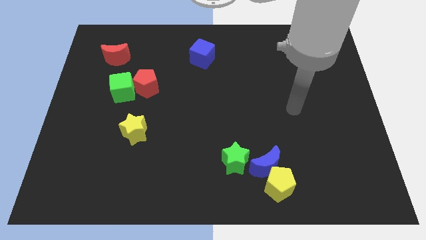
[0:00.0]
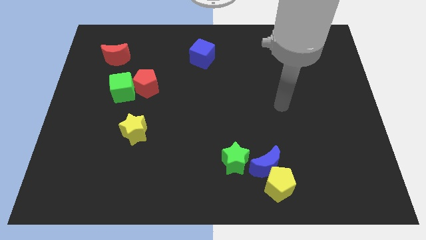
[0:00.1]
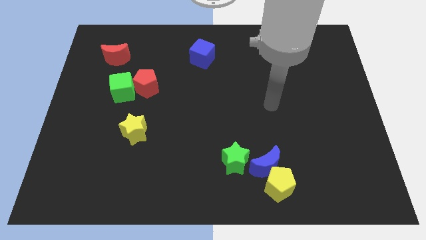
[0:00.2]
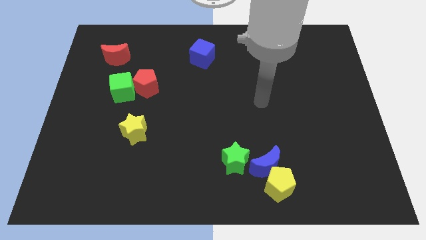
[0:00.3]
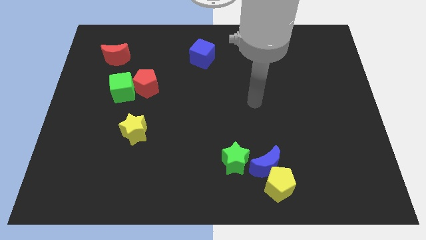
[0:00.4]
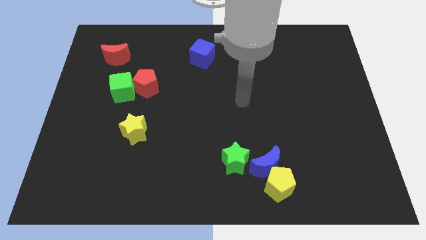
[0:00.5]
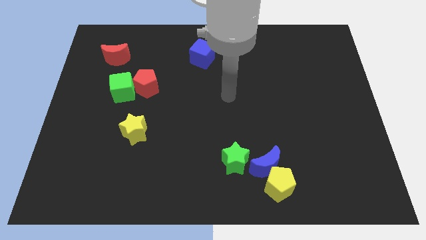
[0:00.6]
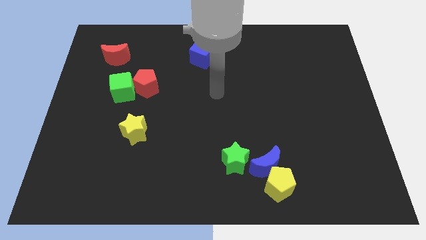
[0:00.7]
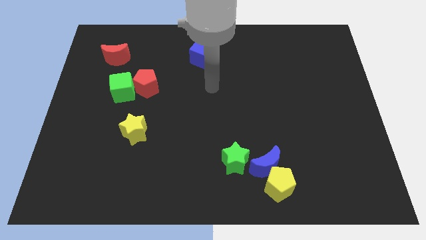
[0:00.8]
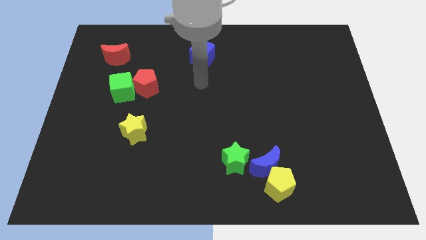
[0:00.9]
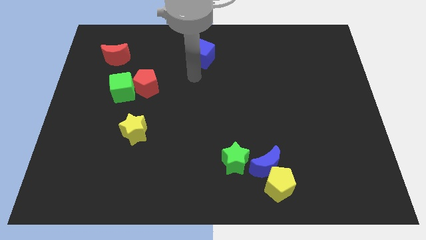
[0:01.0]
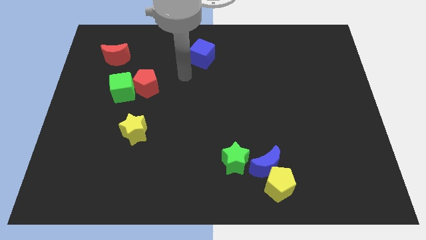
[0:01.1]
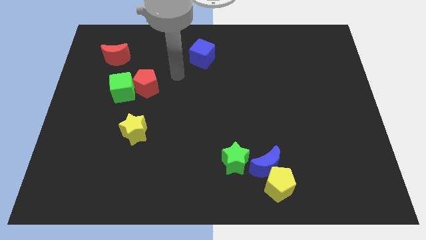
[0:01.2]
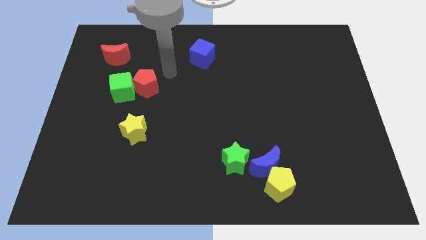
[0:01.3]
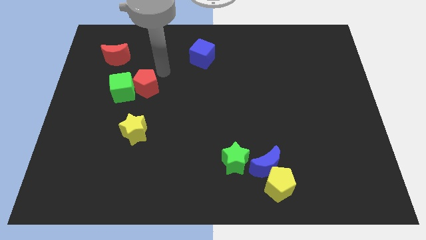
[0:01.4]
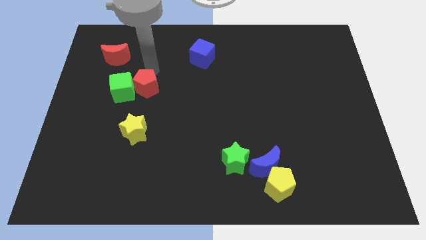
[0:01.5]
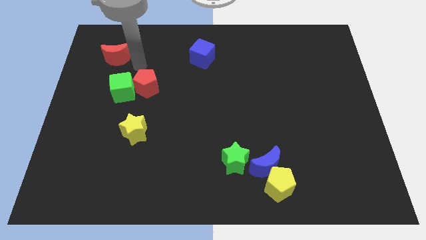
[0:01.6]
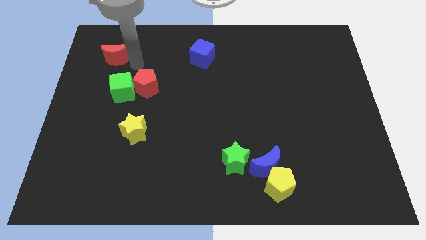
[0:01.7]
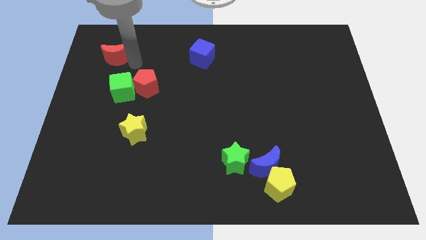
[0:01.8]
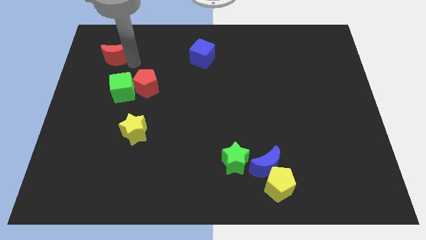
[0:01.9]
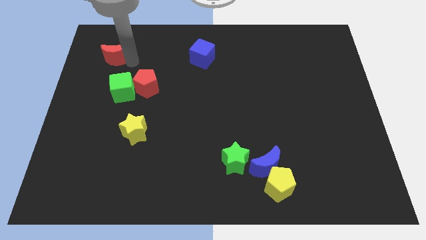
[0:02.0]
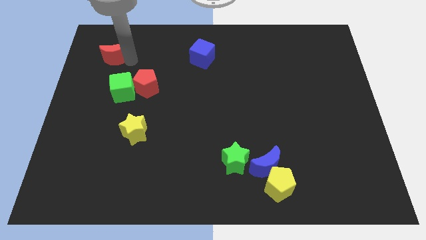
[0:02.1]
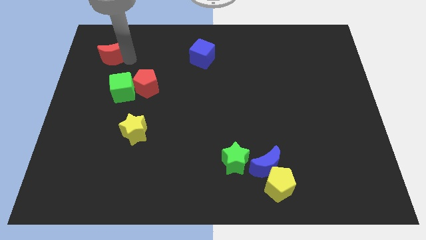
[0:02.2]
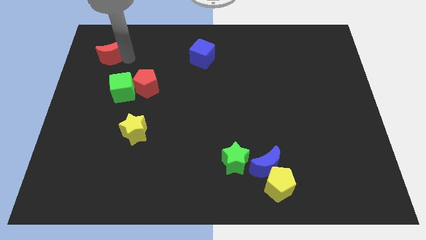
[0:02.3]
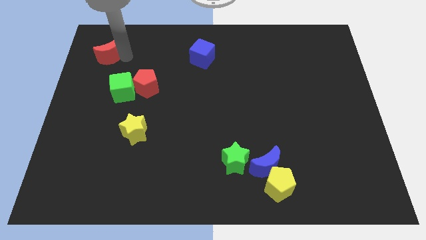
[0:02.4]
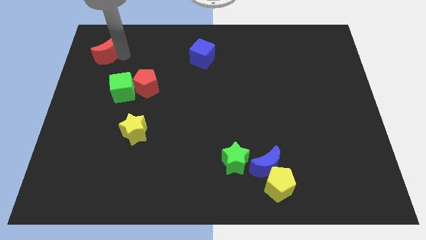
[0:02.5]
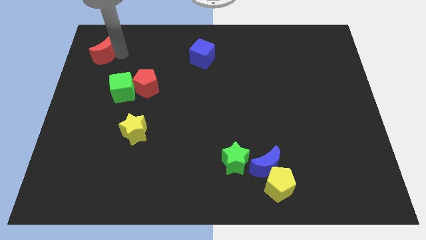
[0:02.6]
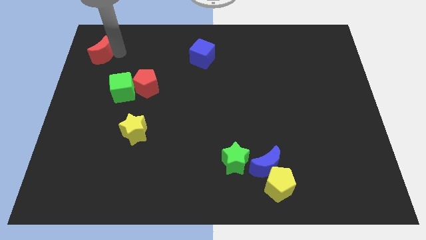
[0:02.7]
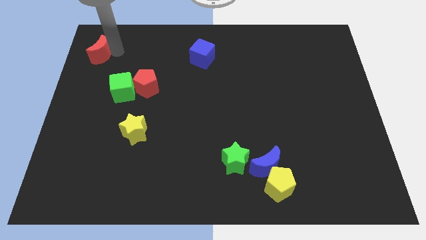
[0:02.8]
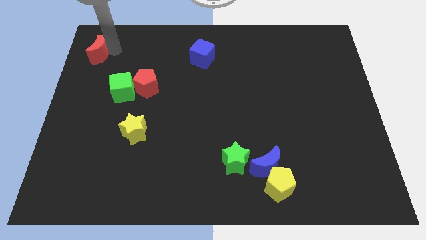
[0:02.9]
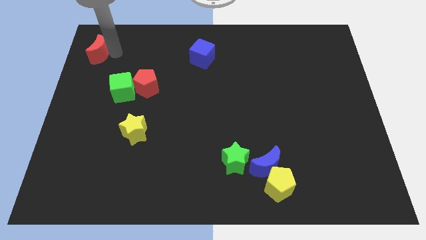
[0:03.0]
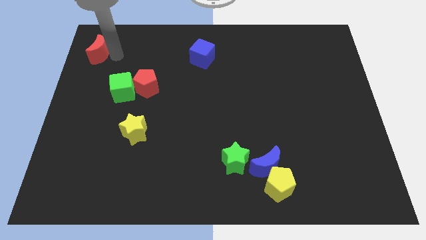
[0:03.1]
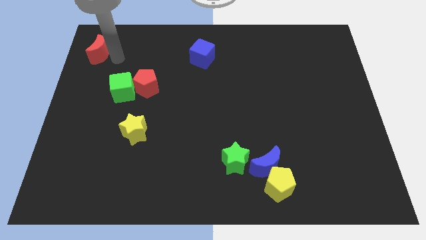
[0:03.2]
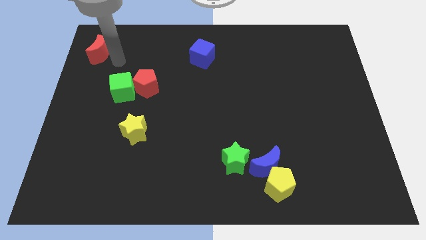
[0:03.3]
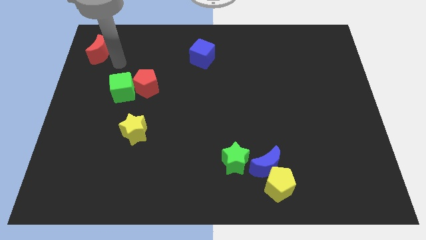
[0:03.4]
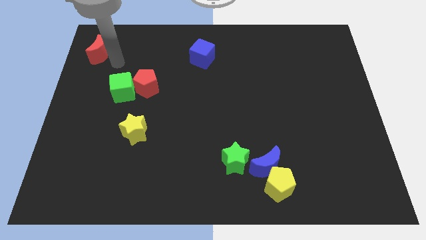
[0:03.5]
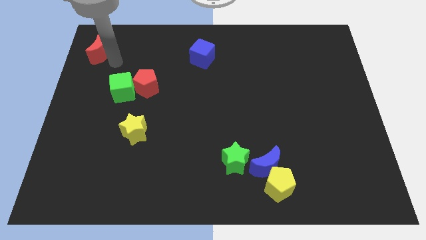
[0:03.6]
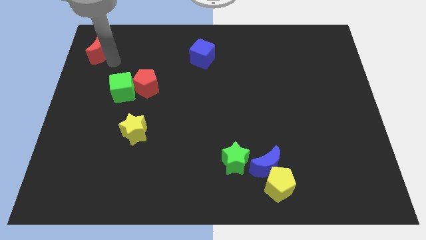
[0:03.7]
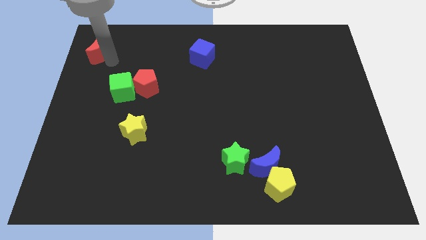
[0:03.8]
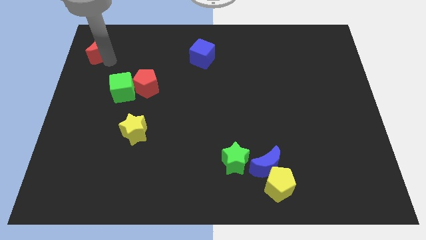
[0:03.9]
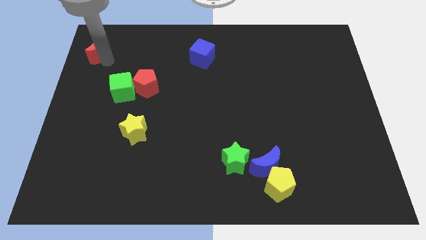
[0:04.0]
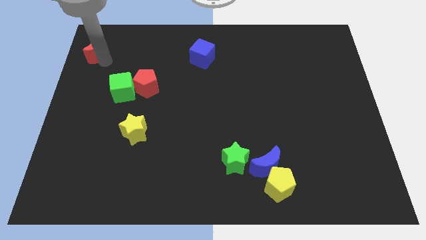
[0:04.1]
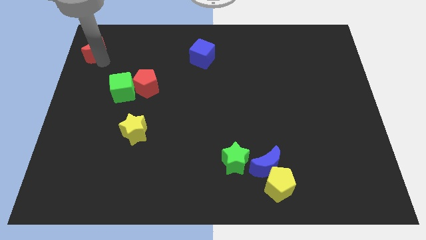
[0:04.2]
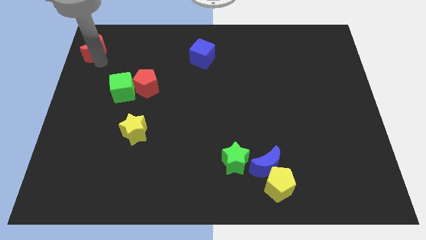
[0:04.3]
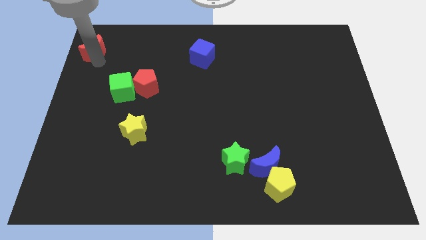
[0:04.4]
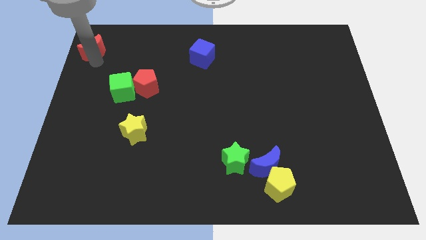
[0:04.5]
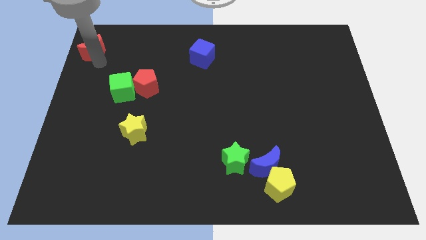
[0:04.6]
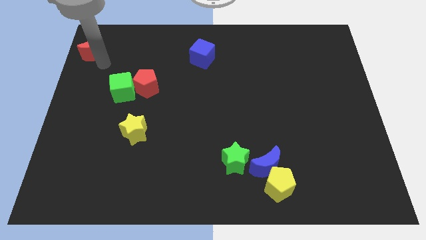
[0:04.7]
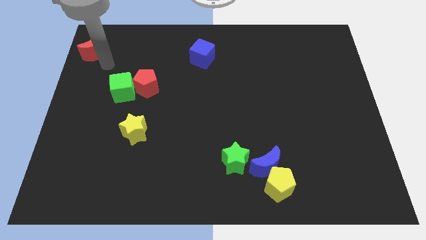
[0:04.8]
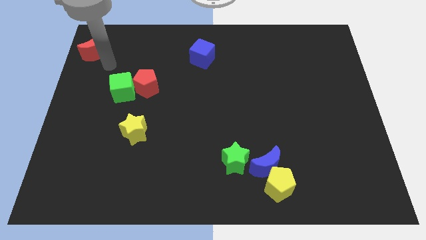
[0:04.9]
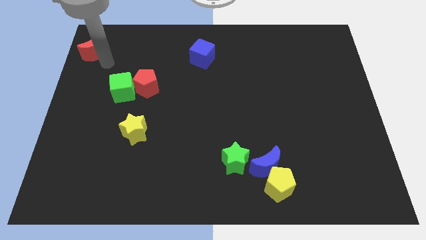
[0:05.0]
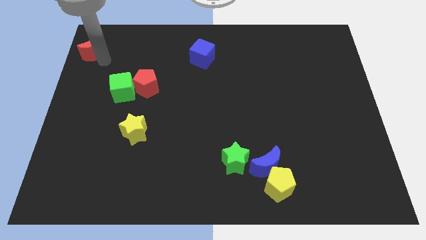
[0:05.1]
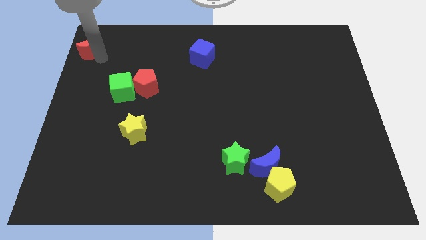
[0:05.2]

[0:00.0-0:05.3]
slide the red moon to the top left of the board

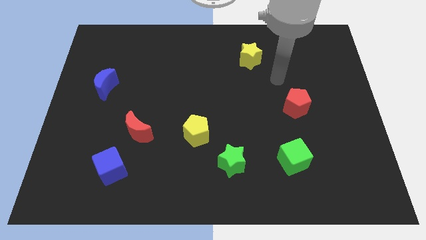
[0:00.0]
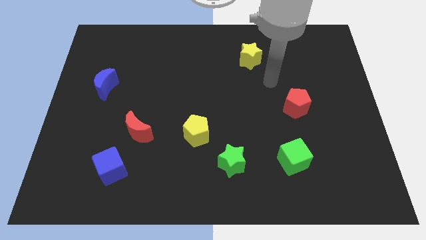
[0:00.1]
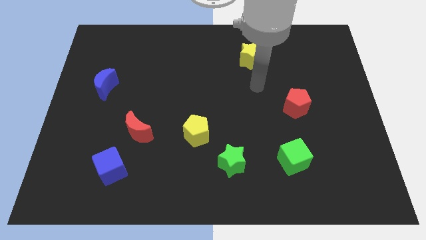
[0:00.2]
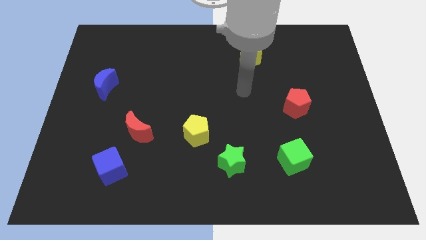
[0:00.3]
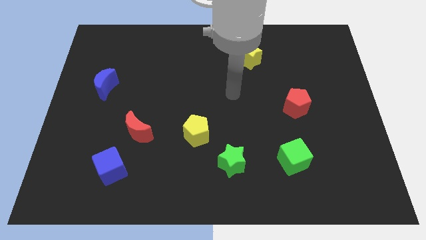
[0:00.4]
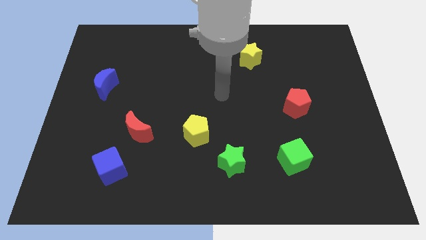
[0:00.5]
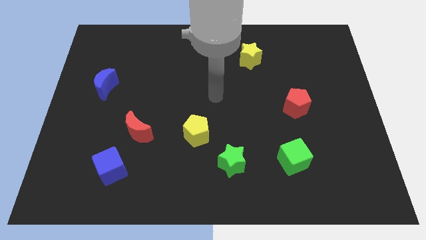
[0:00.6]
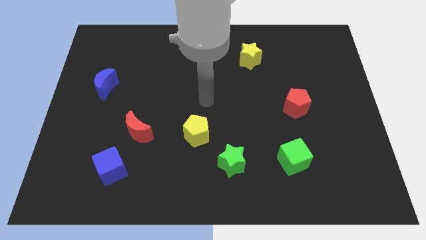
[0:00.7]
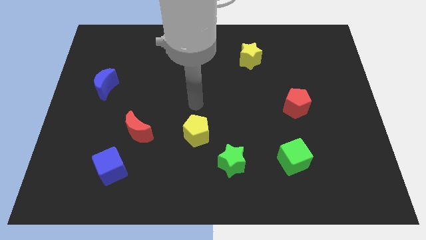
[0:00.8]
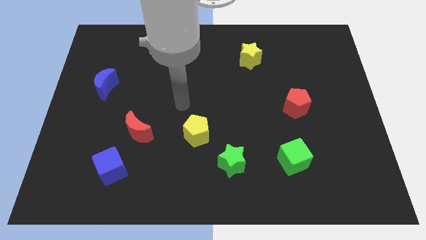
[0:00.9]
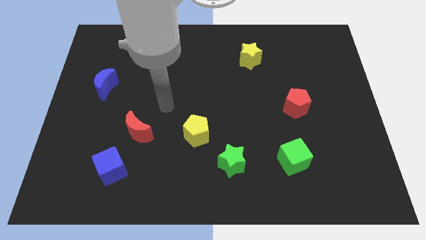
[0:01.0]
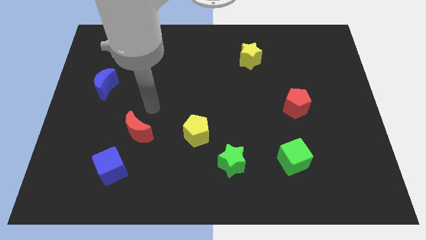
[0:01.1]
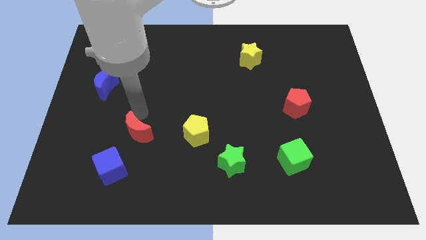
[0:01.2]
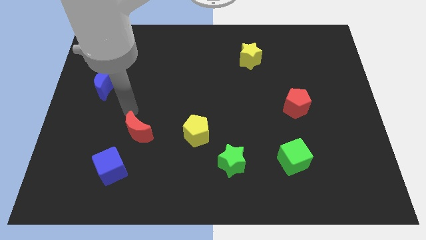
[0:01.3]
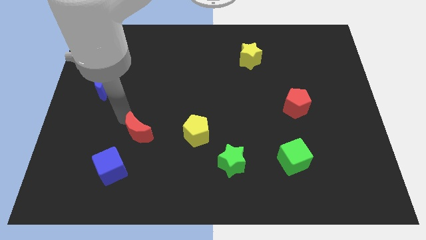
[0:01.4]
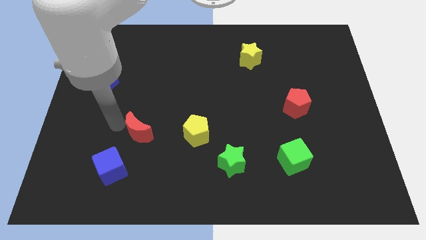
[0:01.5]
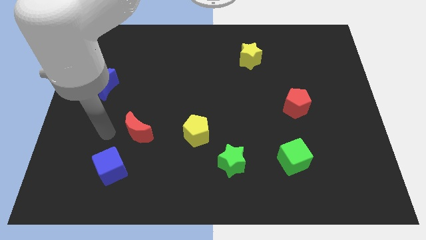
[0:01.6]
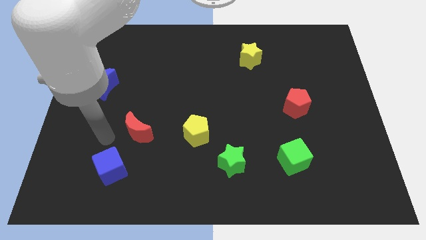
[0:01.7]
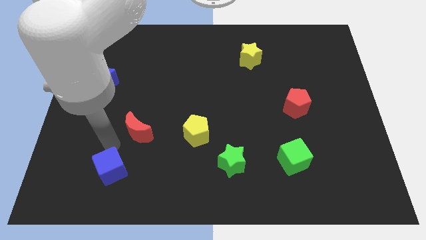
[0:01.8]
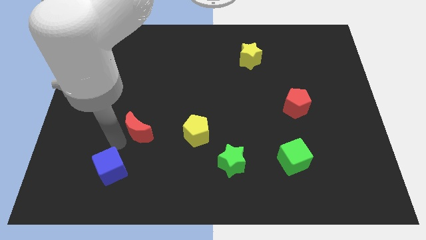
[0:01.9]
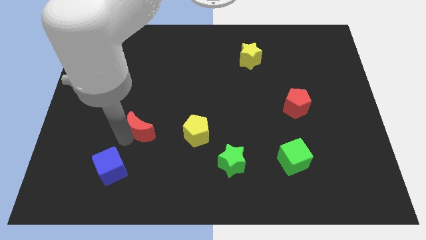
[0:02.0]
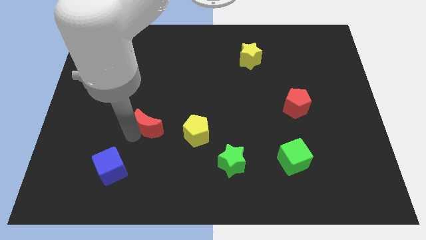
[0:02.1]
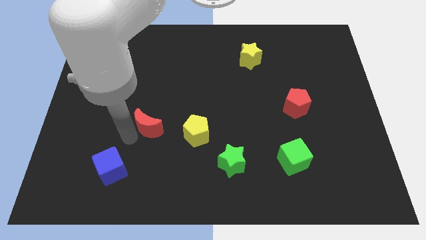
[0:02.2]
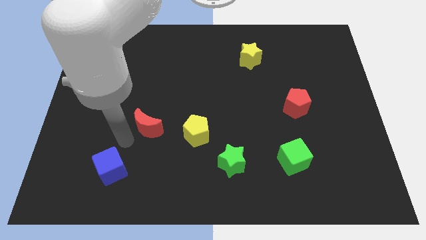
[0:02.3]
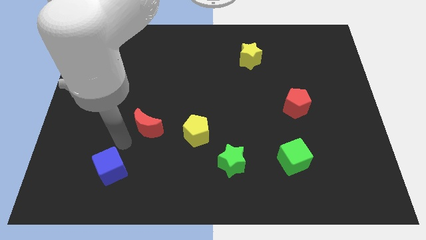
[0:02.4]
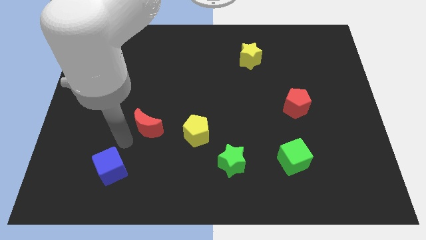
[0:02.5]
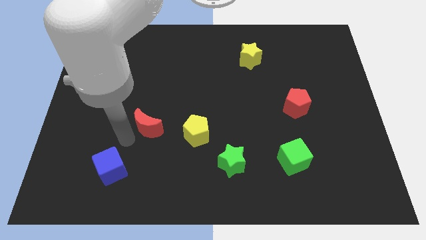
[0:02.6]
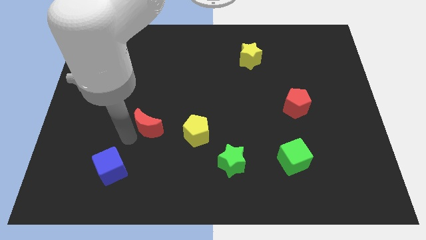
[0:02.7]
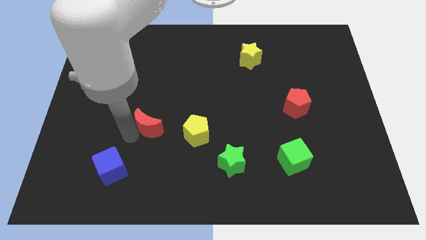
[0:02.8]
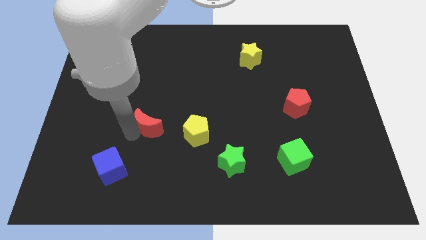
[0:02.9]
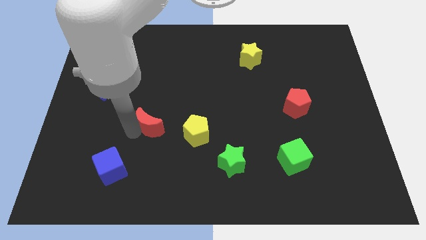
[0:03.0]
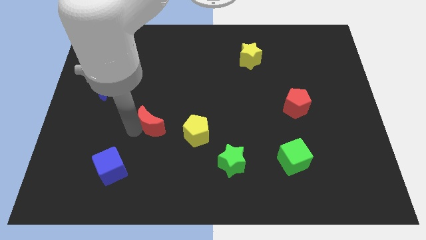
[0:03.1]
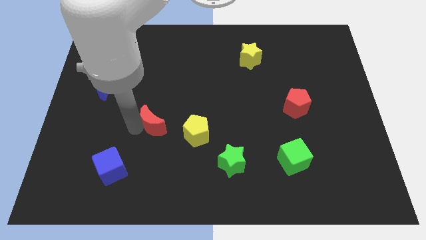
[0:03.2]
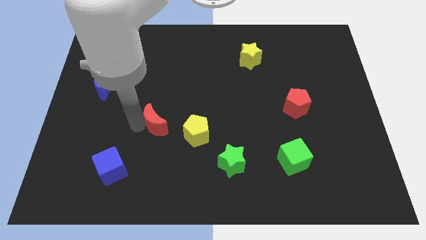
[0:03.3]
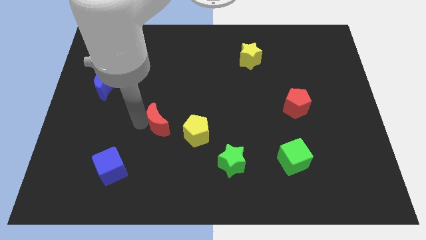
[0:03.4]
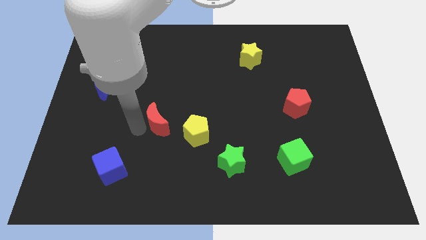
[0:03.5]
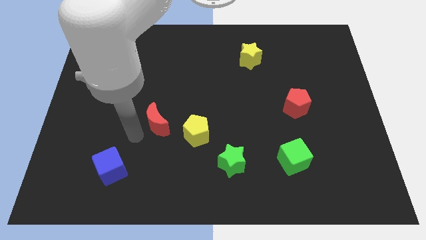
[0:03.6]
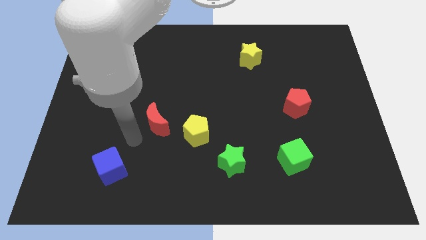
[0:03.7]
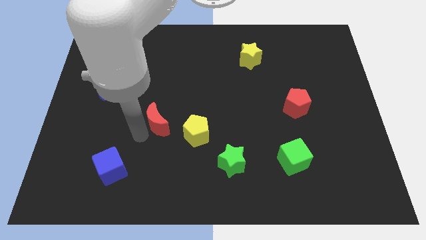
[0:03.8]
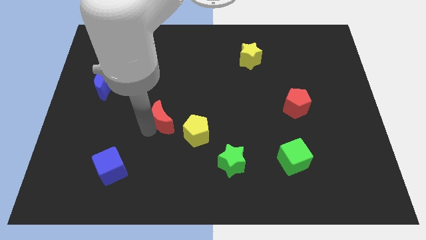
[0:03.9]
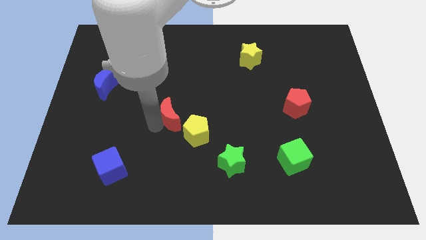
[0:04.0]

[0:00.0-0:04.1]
slide the red moon to the middle
